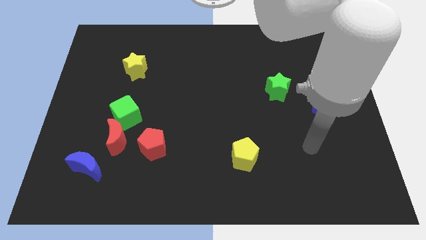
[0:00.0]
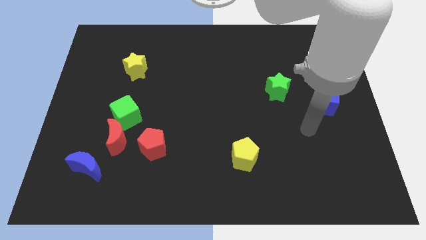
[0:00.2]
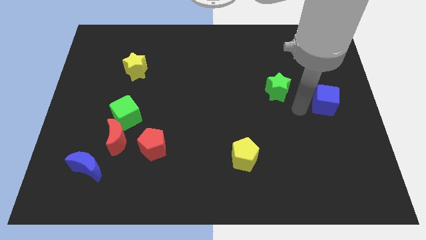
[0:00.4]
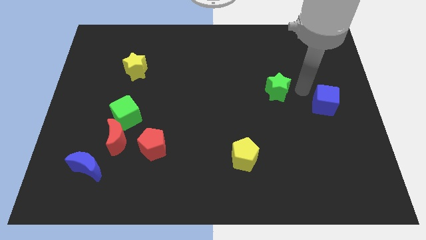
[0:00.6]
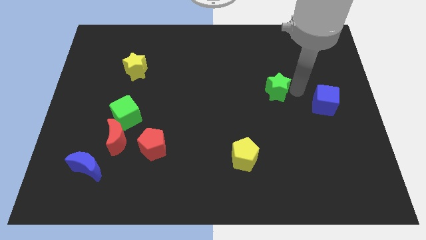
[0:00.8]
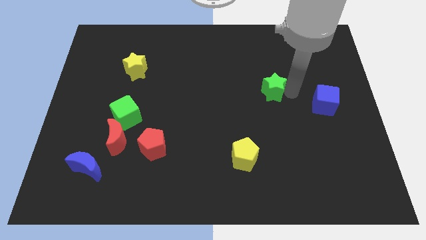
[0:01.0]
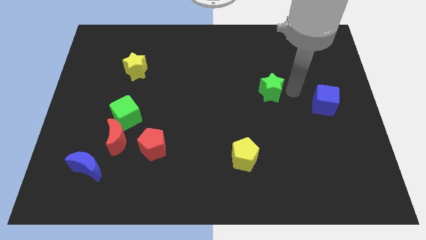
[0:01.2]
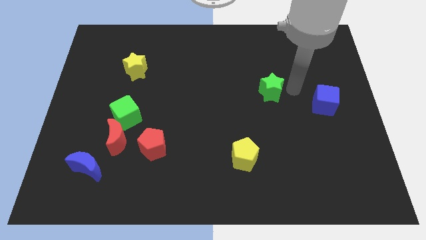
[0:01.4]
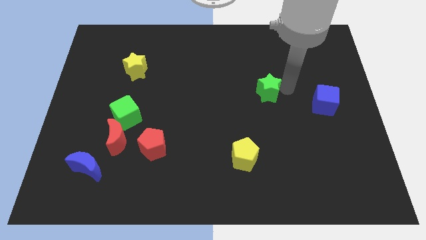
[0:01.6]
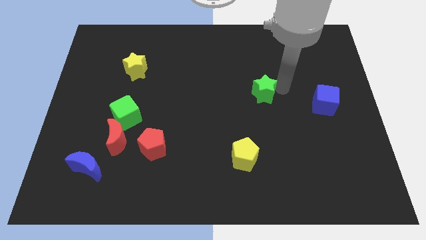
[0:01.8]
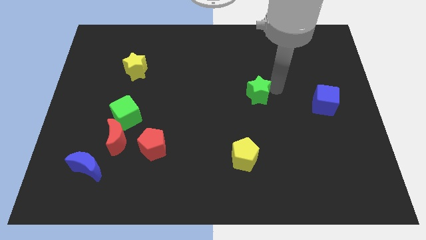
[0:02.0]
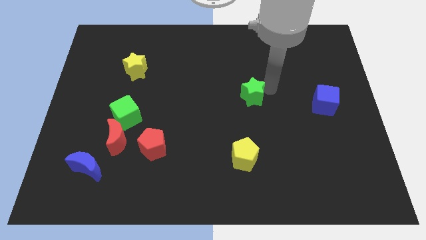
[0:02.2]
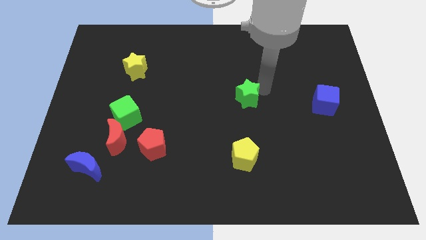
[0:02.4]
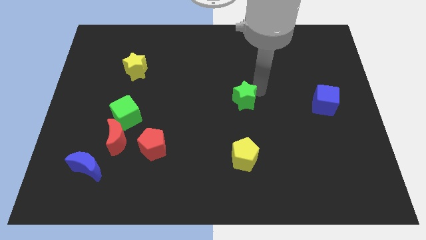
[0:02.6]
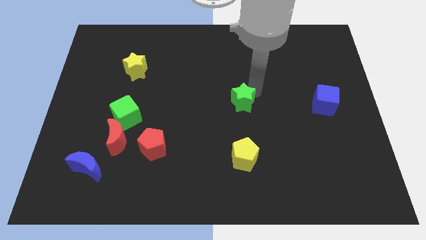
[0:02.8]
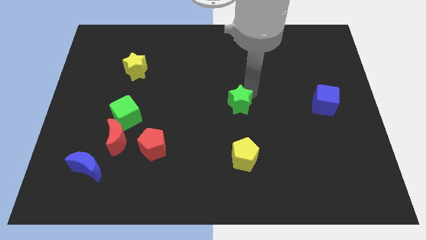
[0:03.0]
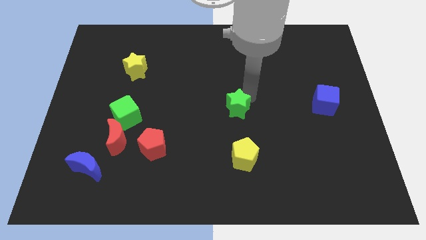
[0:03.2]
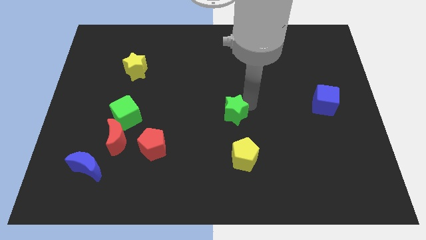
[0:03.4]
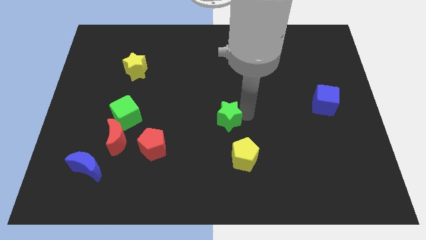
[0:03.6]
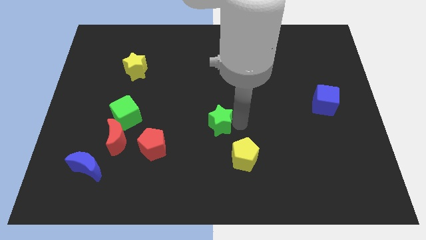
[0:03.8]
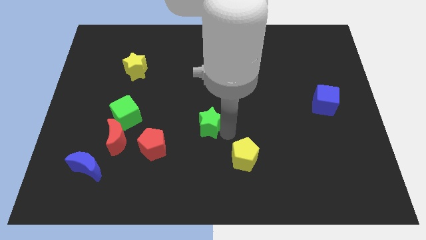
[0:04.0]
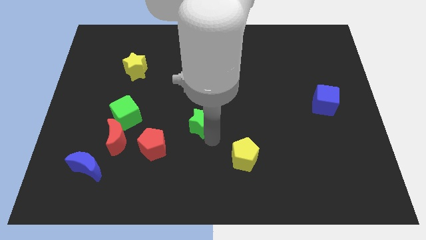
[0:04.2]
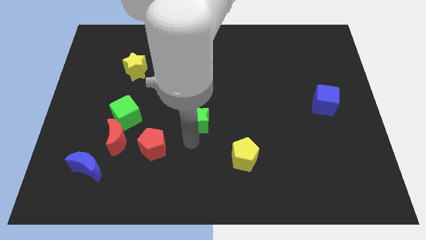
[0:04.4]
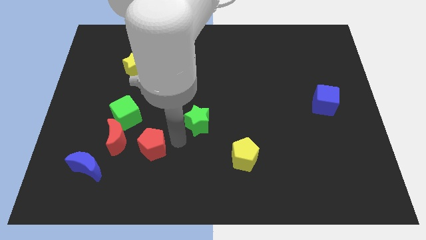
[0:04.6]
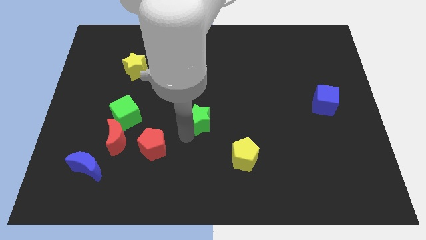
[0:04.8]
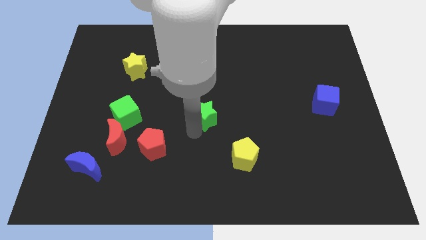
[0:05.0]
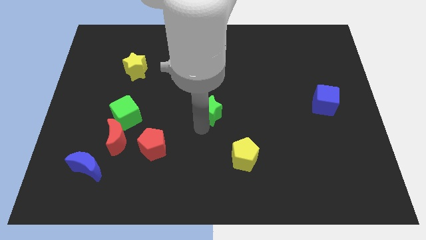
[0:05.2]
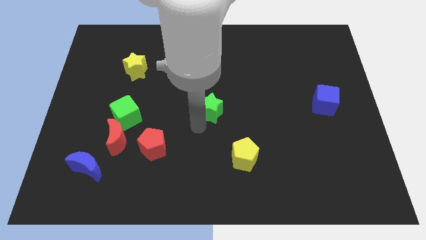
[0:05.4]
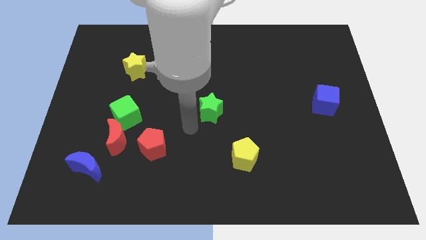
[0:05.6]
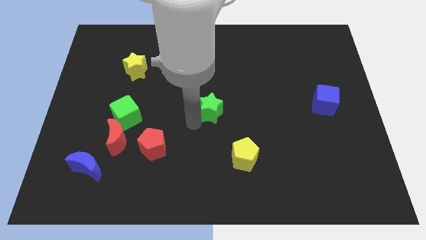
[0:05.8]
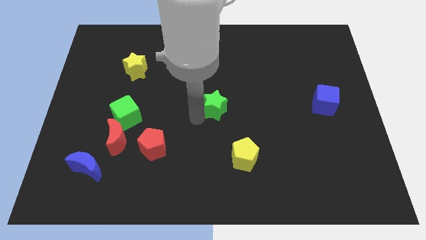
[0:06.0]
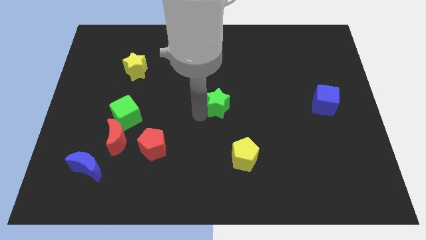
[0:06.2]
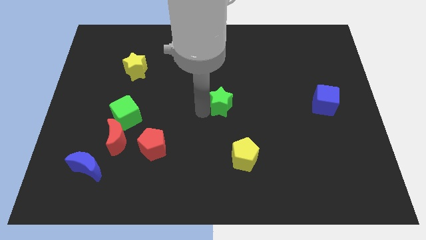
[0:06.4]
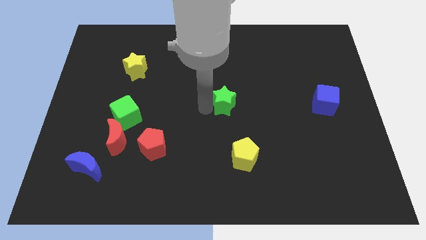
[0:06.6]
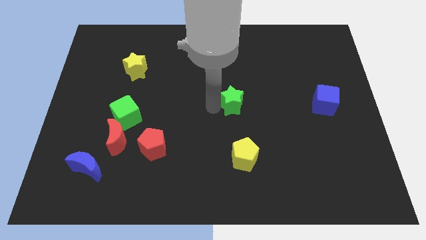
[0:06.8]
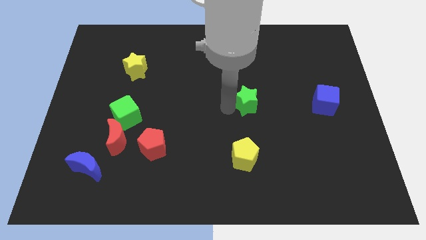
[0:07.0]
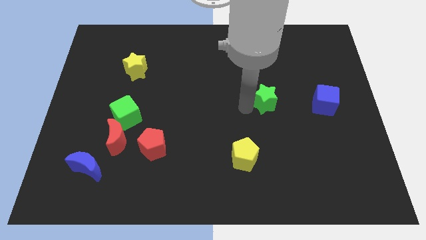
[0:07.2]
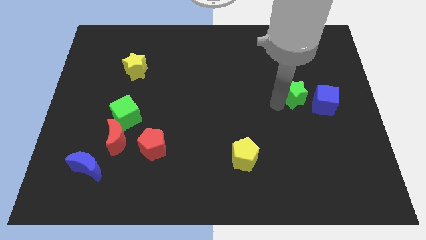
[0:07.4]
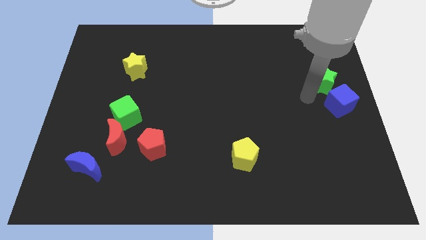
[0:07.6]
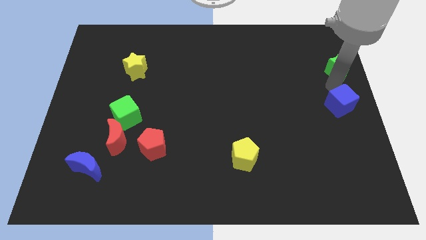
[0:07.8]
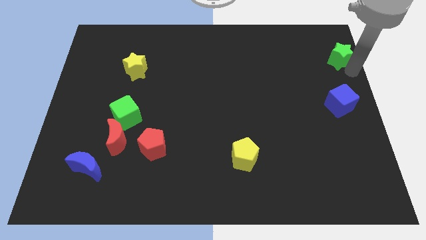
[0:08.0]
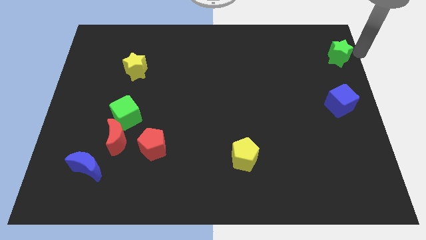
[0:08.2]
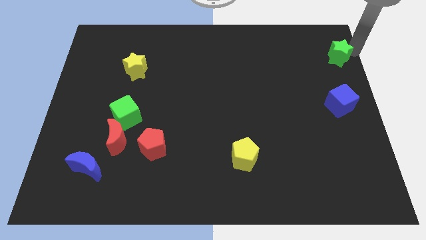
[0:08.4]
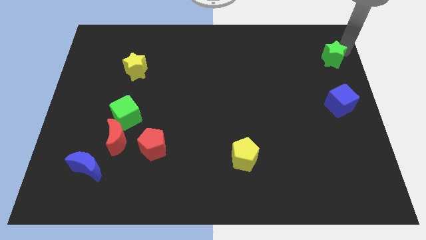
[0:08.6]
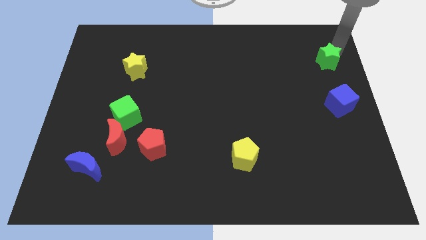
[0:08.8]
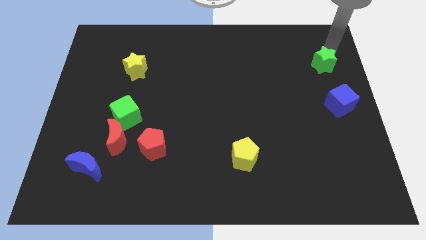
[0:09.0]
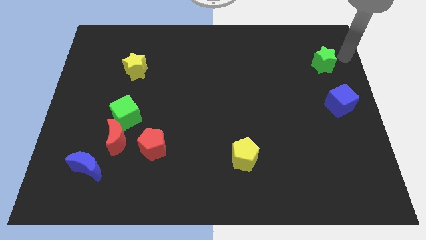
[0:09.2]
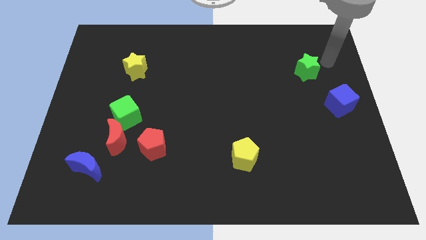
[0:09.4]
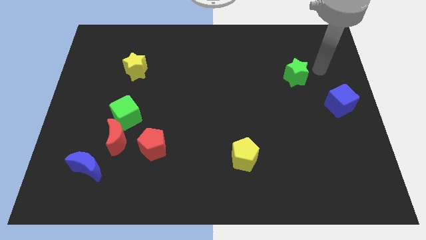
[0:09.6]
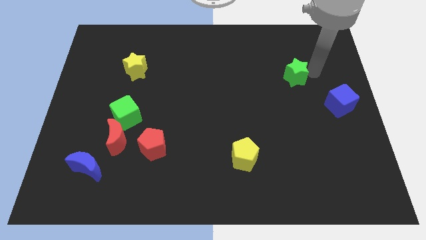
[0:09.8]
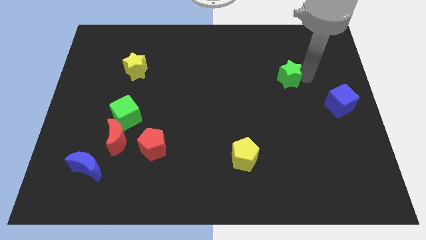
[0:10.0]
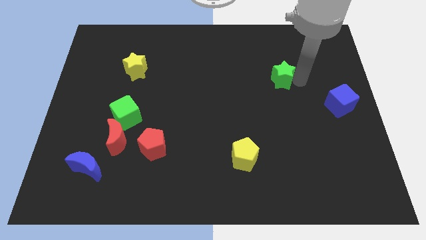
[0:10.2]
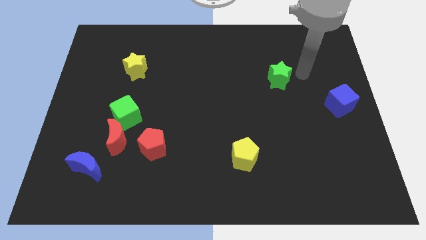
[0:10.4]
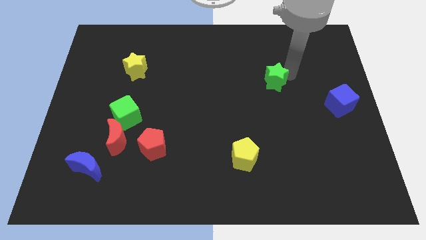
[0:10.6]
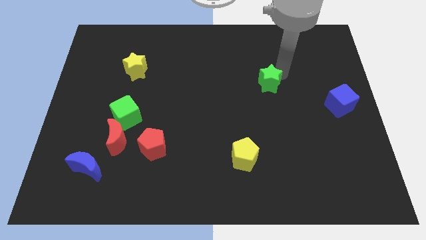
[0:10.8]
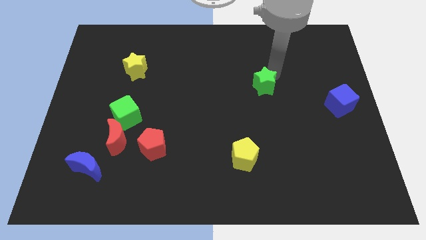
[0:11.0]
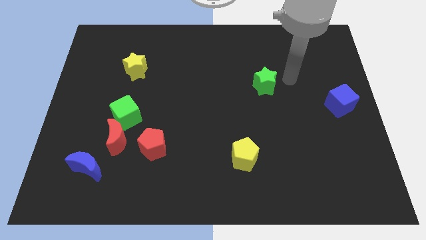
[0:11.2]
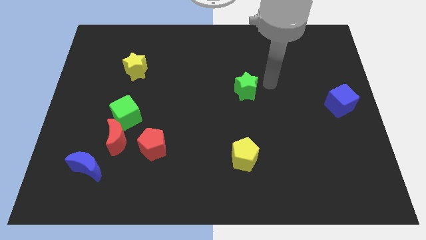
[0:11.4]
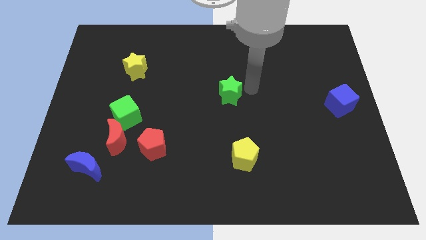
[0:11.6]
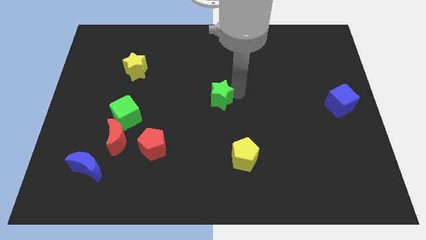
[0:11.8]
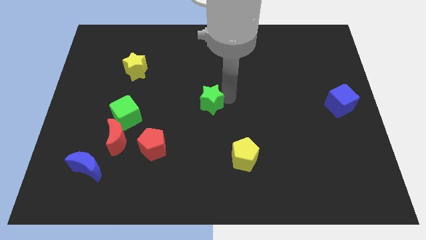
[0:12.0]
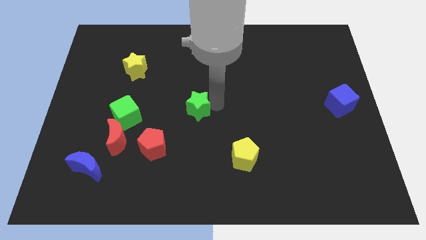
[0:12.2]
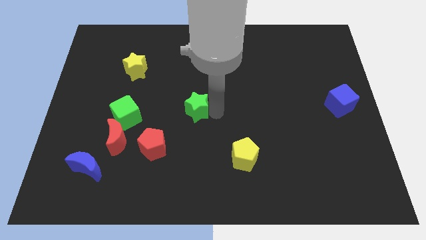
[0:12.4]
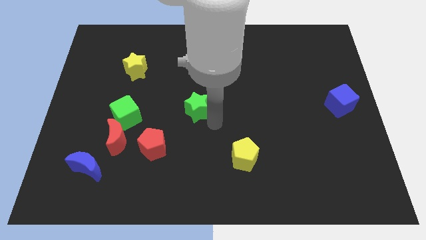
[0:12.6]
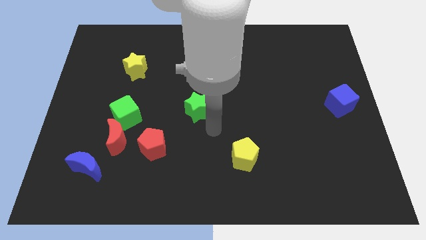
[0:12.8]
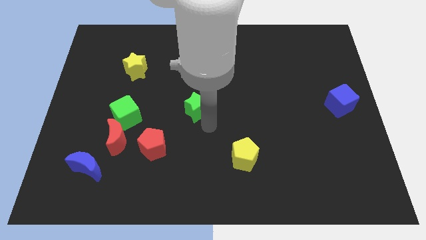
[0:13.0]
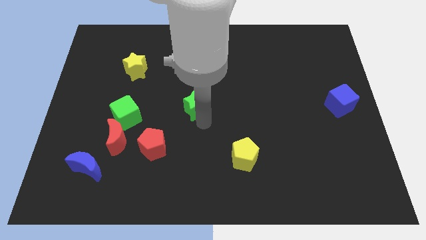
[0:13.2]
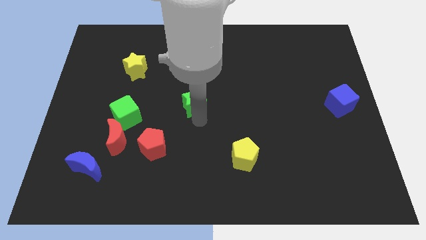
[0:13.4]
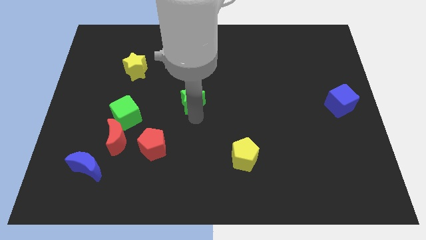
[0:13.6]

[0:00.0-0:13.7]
slide the green star left

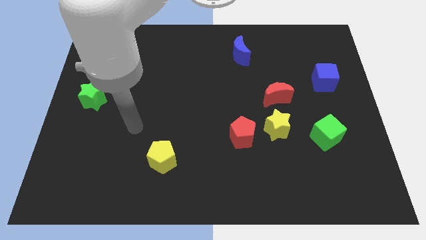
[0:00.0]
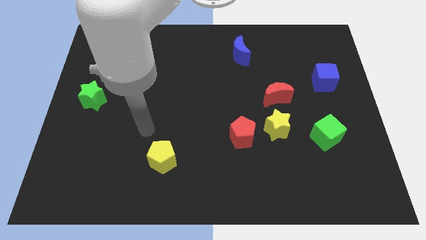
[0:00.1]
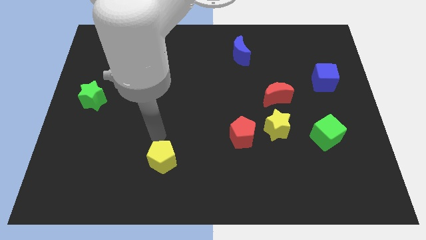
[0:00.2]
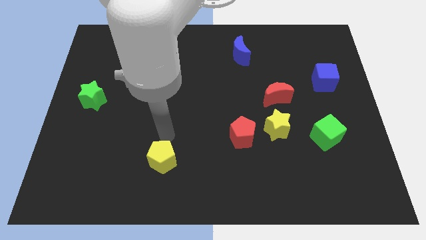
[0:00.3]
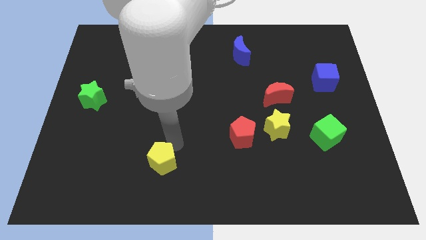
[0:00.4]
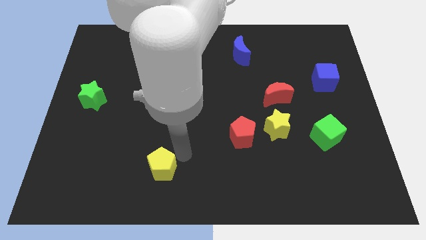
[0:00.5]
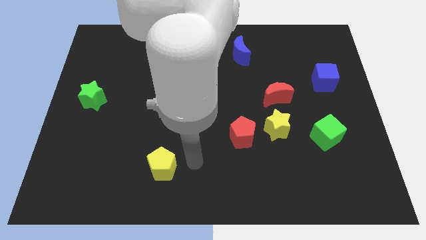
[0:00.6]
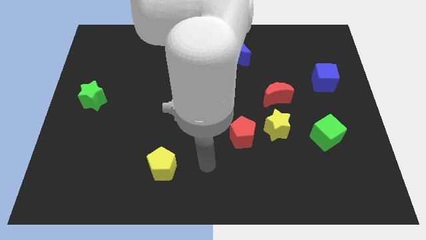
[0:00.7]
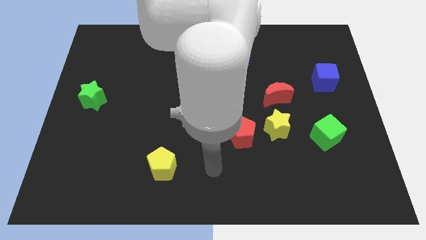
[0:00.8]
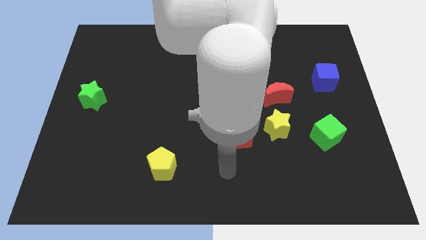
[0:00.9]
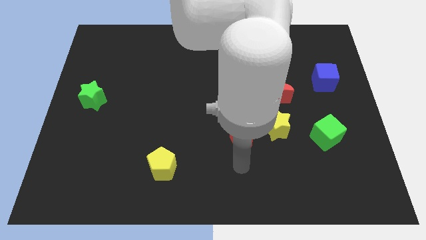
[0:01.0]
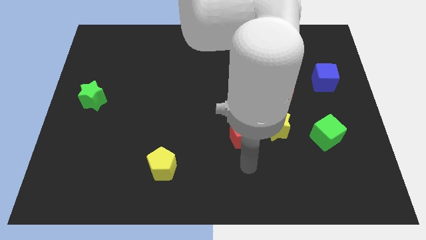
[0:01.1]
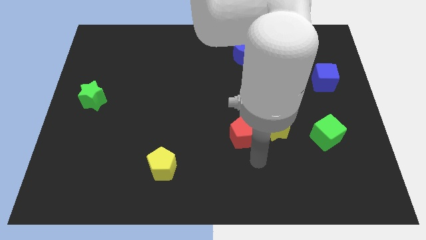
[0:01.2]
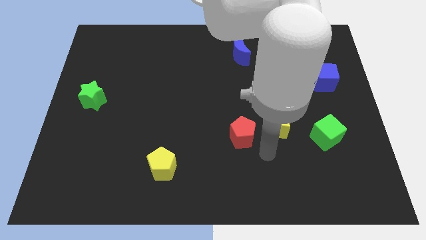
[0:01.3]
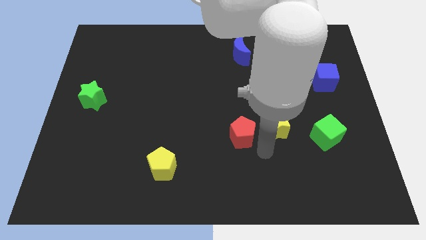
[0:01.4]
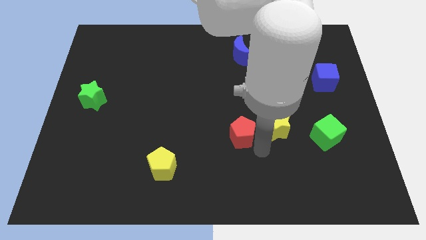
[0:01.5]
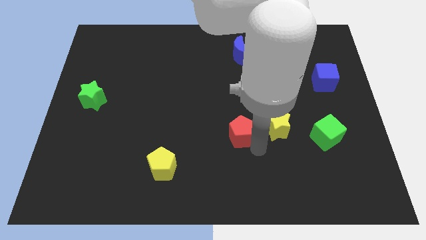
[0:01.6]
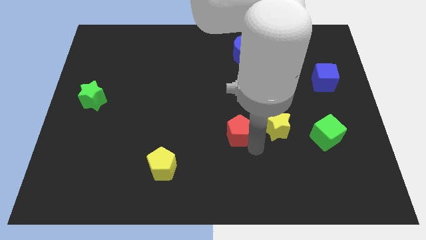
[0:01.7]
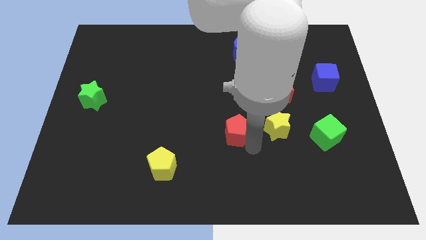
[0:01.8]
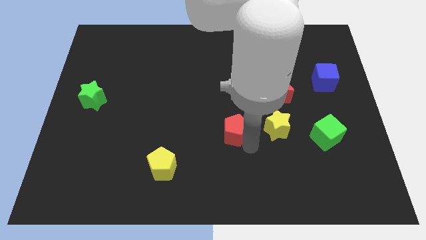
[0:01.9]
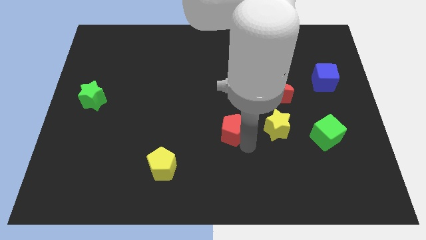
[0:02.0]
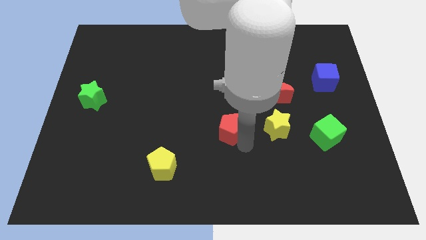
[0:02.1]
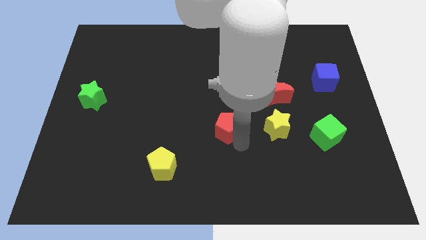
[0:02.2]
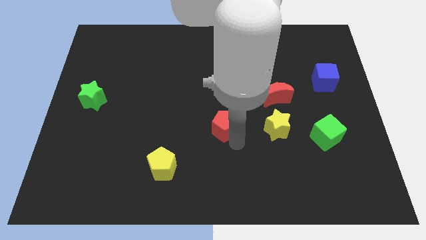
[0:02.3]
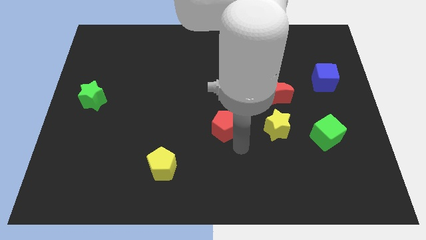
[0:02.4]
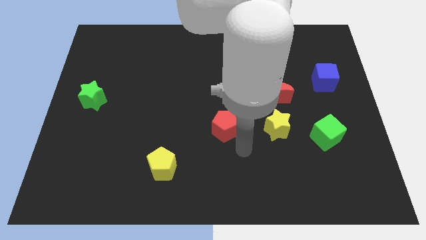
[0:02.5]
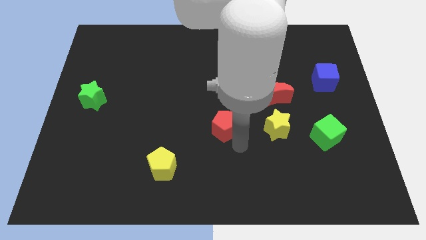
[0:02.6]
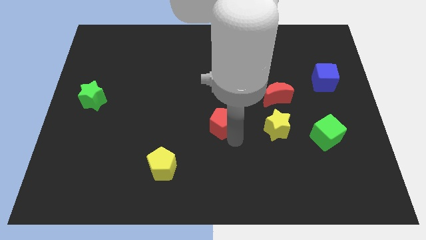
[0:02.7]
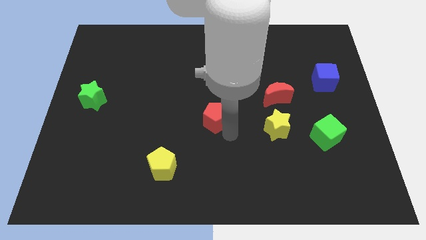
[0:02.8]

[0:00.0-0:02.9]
push the red pentagon diagonally upwards and left a little bit
